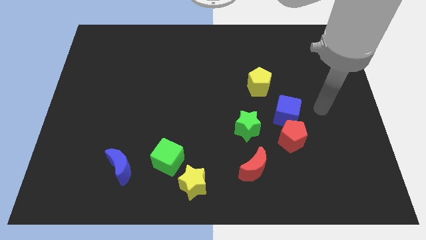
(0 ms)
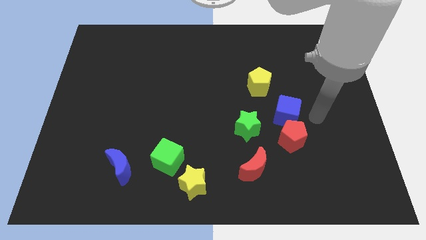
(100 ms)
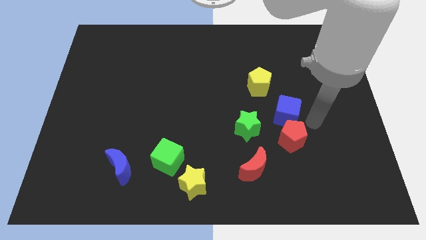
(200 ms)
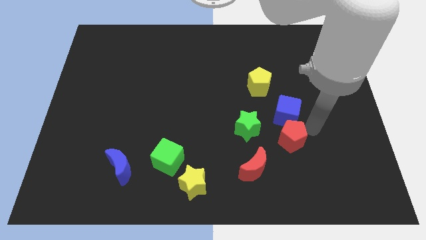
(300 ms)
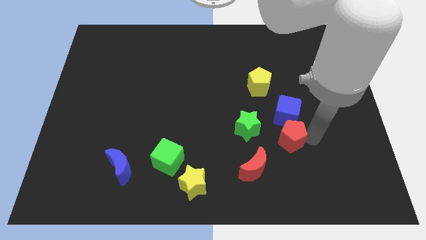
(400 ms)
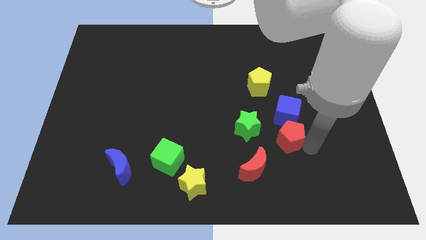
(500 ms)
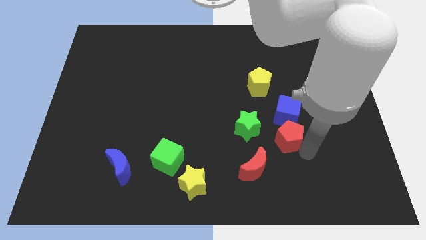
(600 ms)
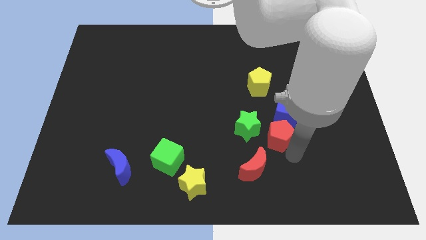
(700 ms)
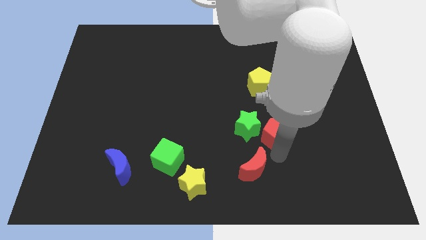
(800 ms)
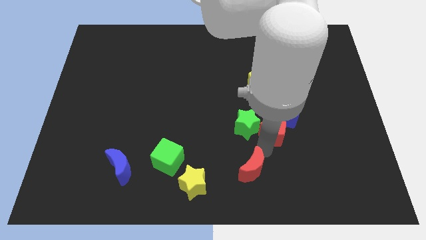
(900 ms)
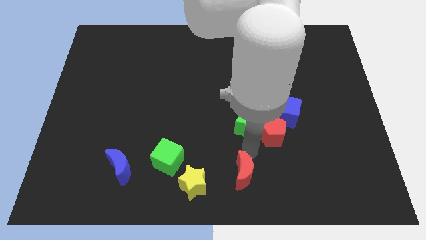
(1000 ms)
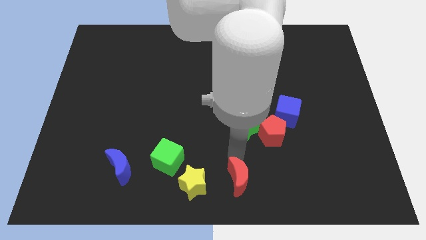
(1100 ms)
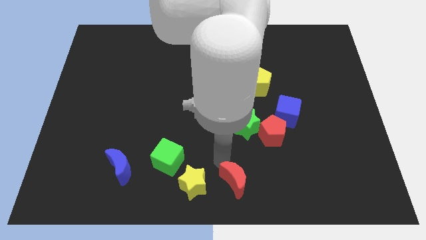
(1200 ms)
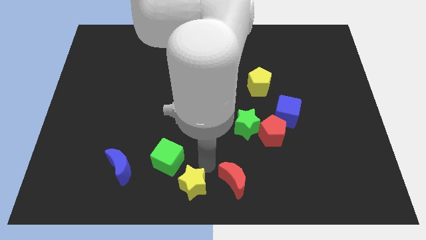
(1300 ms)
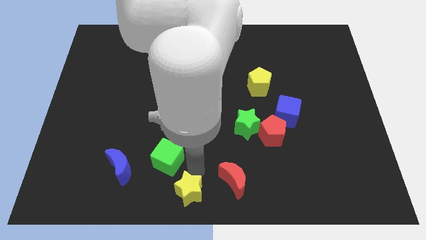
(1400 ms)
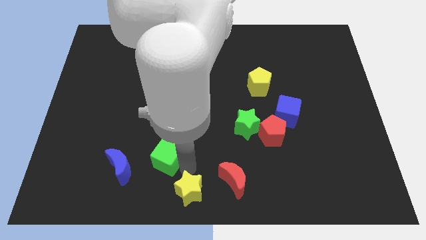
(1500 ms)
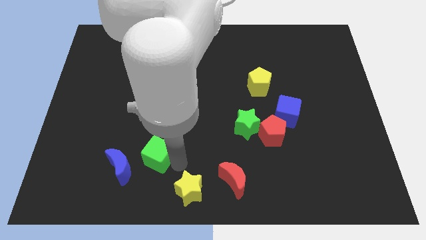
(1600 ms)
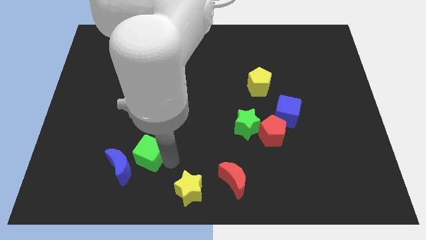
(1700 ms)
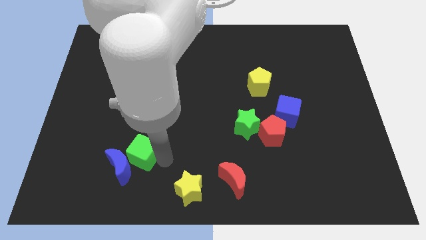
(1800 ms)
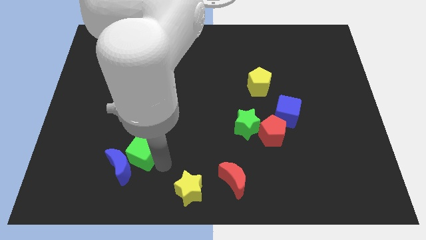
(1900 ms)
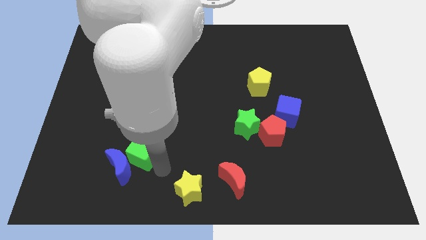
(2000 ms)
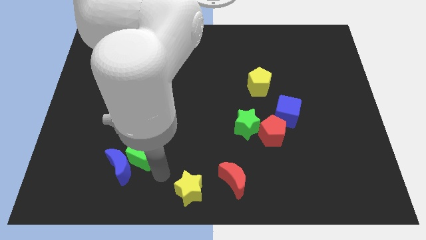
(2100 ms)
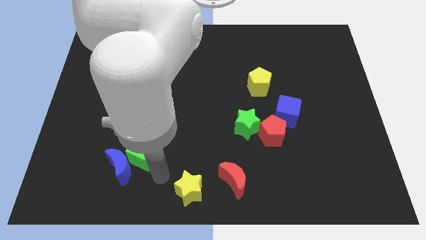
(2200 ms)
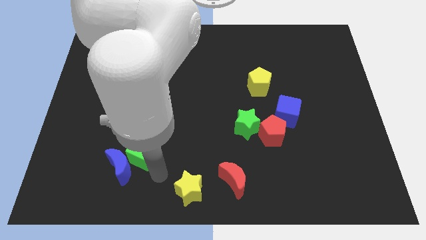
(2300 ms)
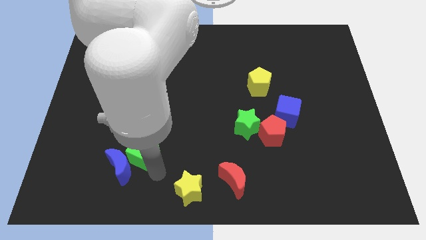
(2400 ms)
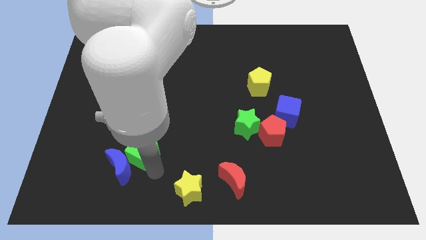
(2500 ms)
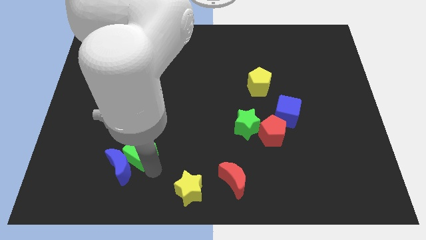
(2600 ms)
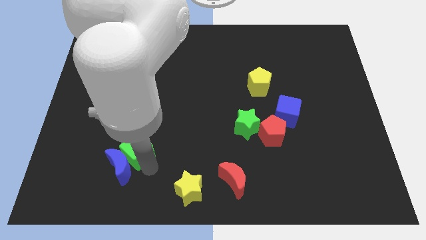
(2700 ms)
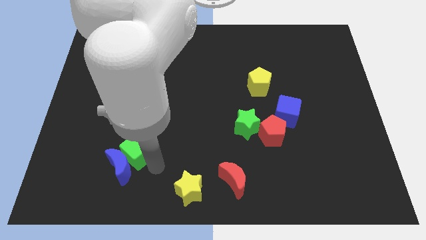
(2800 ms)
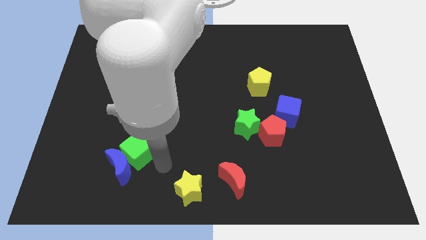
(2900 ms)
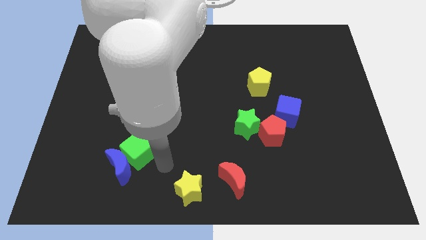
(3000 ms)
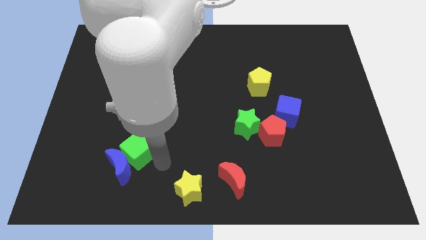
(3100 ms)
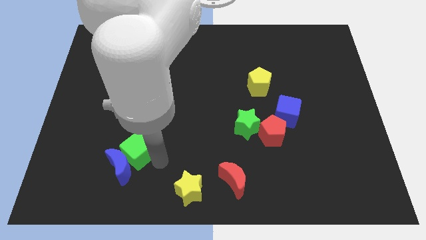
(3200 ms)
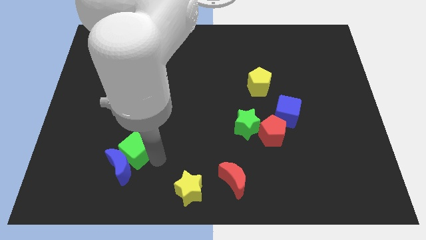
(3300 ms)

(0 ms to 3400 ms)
slide the green cube to the left a little

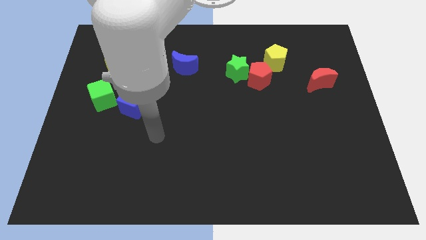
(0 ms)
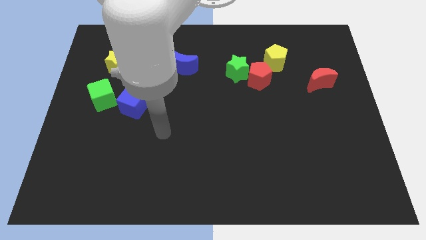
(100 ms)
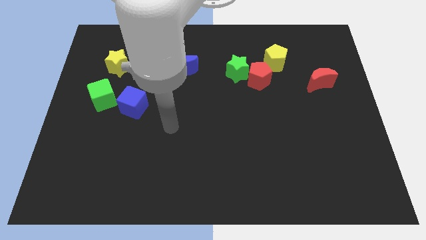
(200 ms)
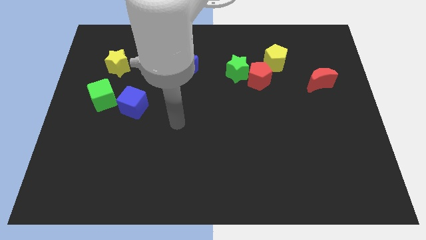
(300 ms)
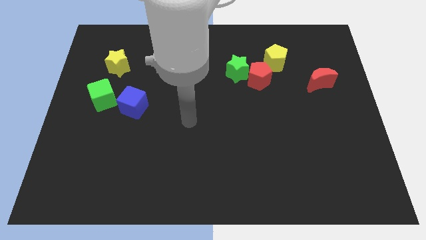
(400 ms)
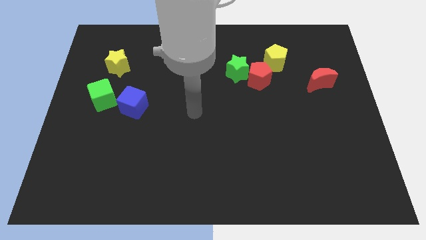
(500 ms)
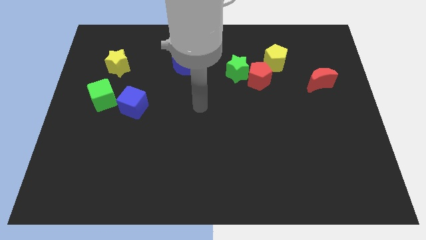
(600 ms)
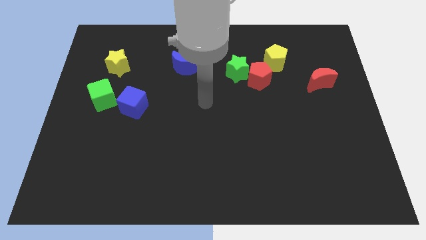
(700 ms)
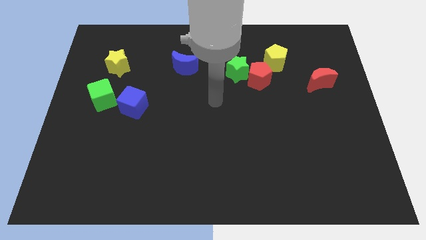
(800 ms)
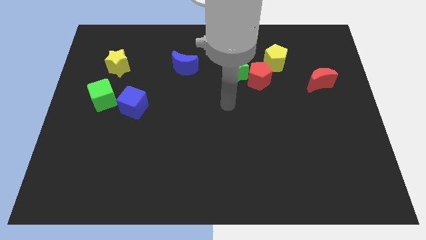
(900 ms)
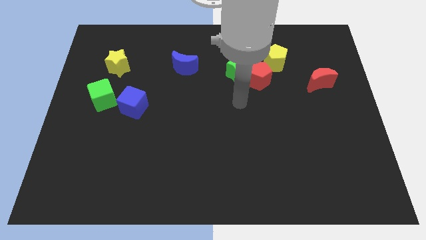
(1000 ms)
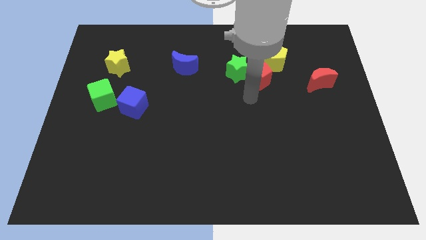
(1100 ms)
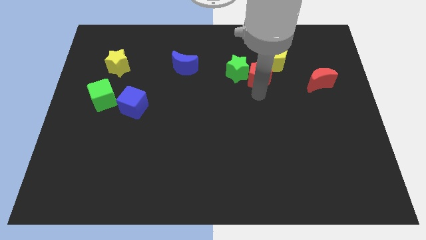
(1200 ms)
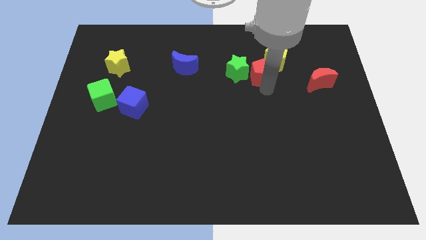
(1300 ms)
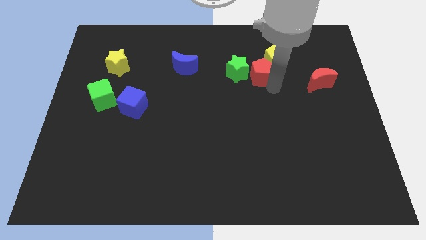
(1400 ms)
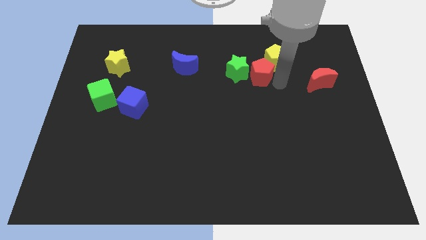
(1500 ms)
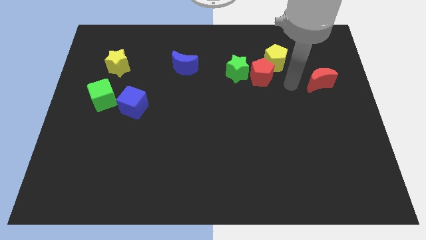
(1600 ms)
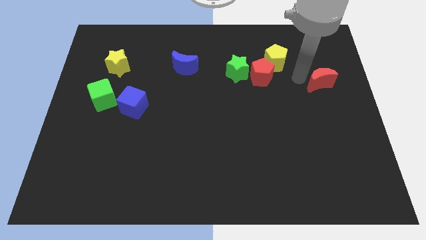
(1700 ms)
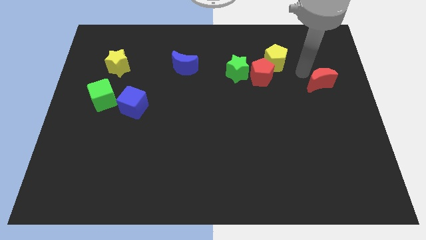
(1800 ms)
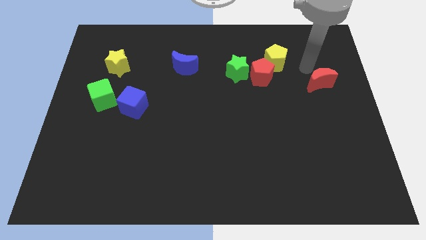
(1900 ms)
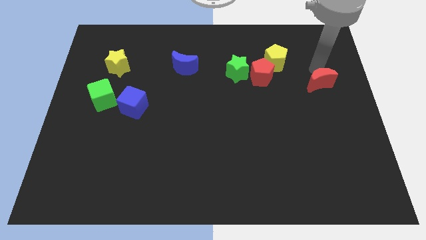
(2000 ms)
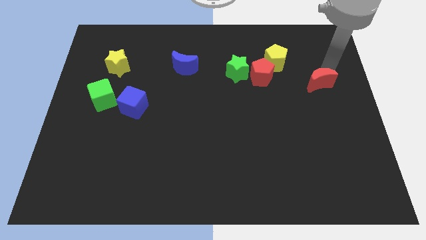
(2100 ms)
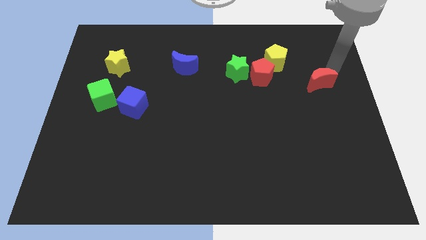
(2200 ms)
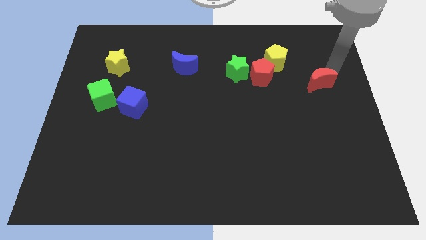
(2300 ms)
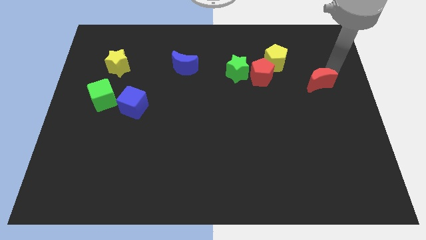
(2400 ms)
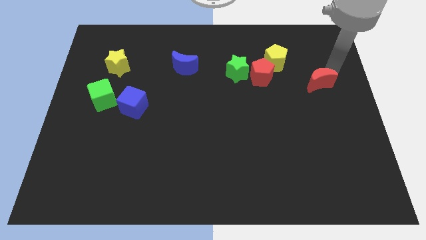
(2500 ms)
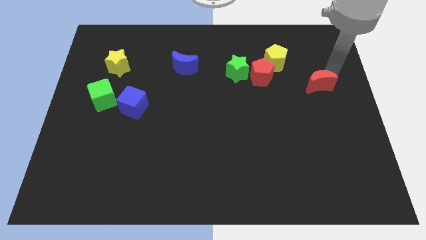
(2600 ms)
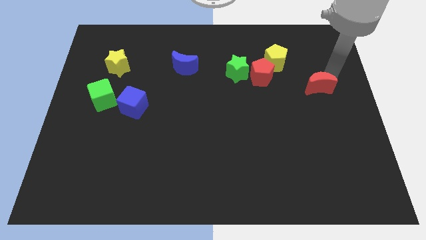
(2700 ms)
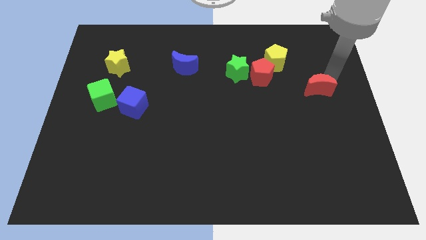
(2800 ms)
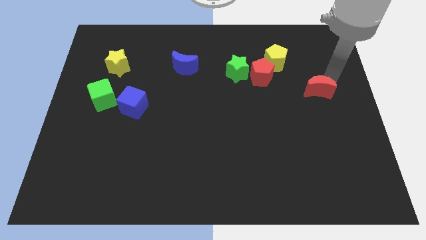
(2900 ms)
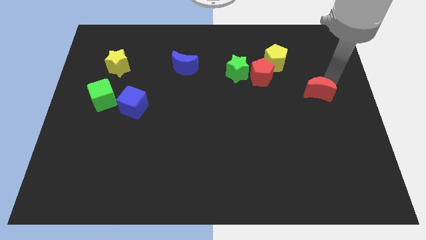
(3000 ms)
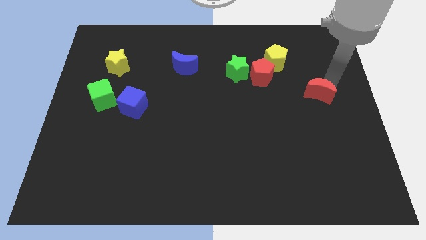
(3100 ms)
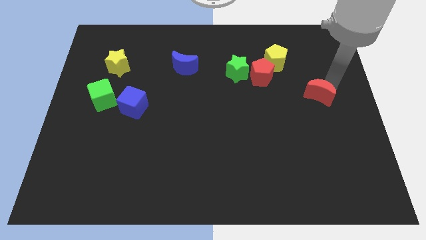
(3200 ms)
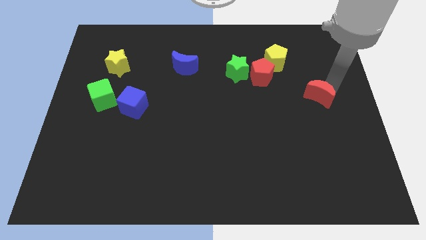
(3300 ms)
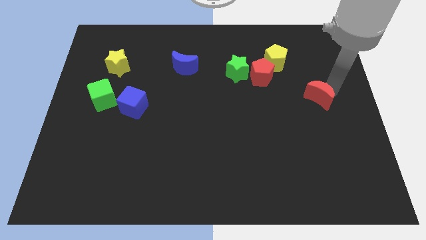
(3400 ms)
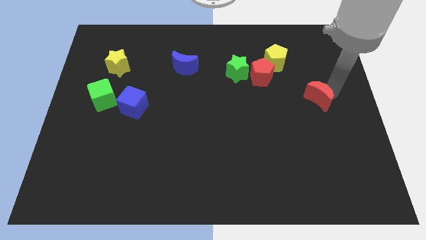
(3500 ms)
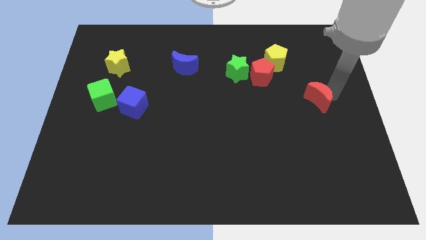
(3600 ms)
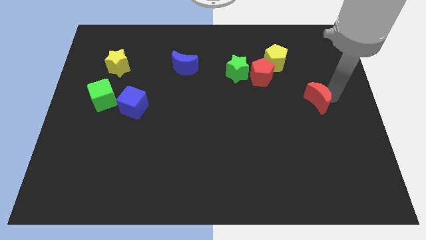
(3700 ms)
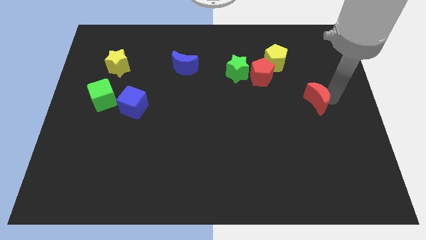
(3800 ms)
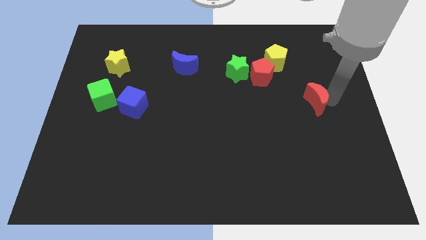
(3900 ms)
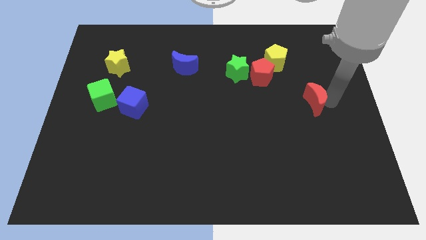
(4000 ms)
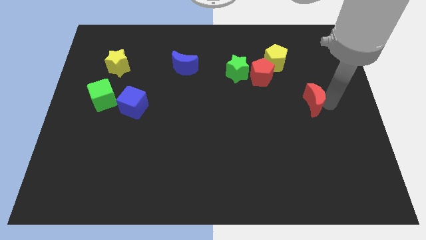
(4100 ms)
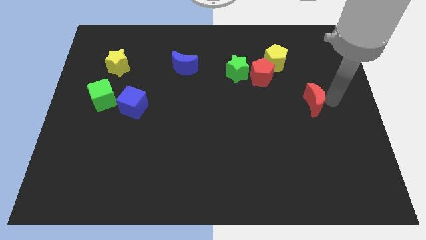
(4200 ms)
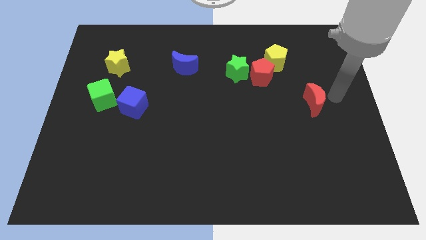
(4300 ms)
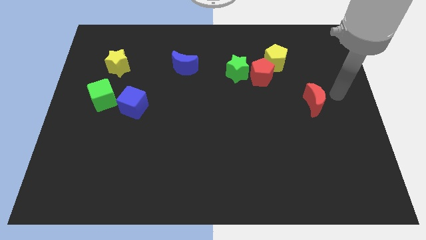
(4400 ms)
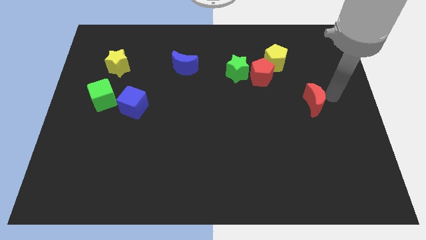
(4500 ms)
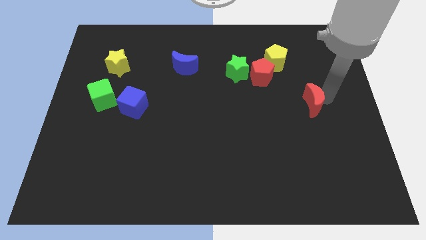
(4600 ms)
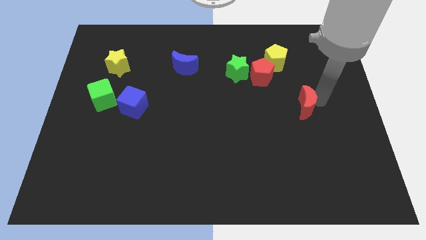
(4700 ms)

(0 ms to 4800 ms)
push the red moon somewhat downwards and then to the left
